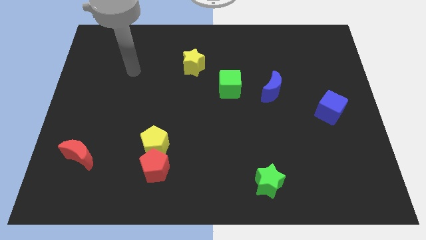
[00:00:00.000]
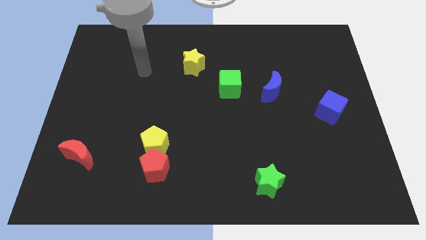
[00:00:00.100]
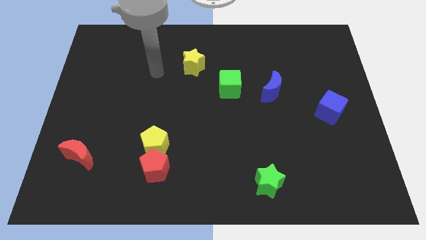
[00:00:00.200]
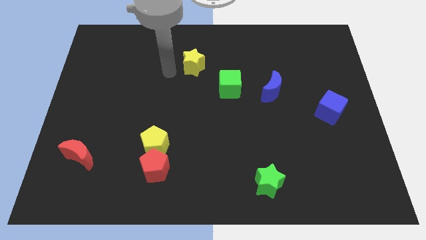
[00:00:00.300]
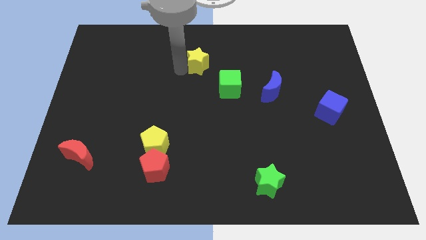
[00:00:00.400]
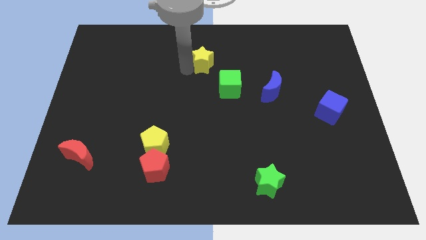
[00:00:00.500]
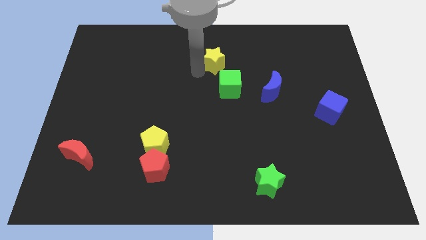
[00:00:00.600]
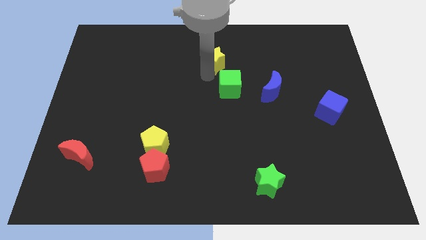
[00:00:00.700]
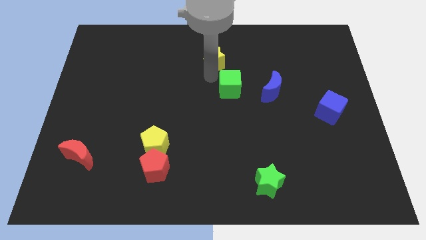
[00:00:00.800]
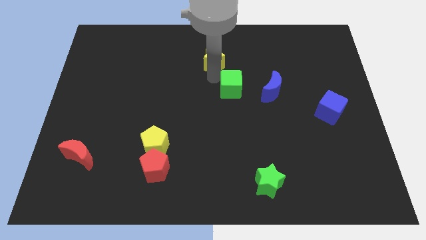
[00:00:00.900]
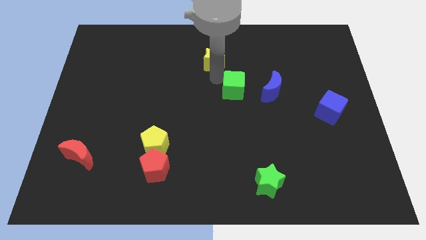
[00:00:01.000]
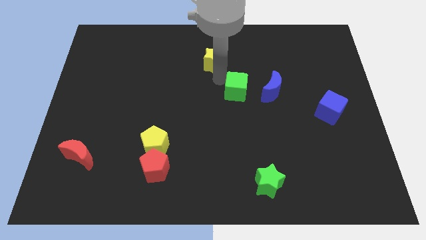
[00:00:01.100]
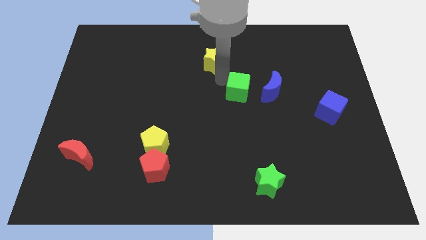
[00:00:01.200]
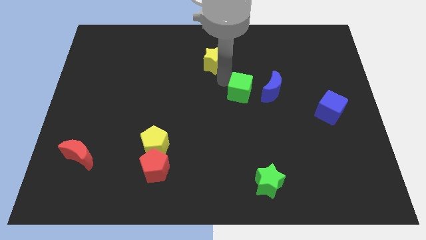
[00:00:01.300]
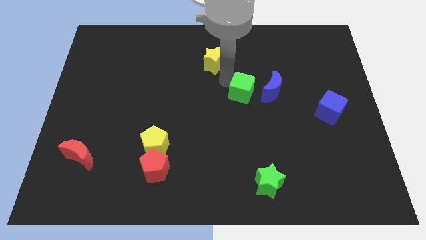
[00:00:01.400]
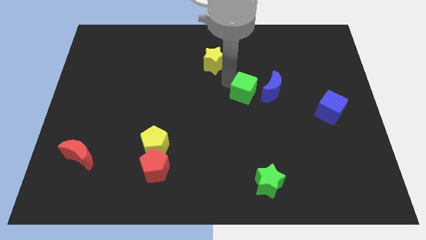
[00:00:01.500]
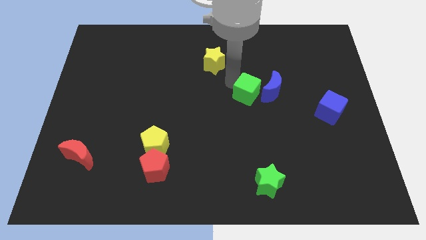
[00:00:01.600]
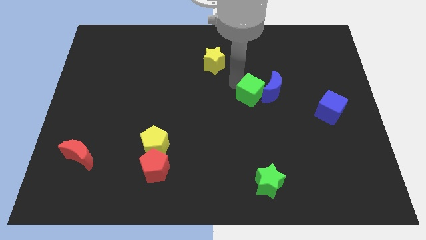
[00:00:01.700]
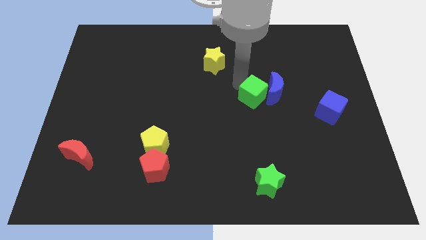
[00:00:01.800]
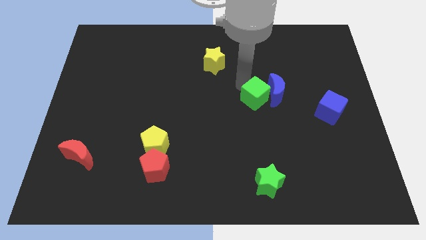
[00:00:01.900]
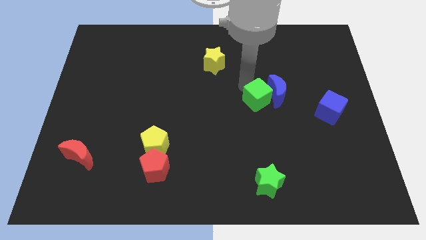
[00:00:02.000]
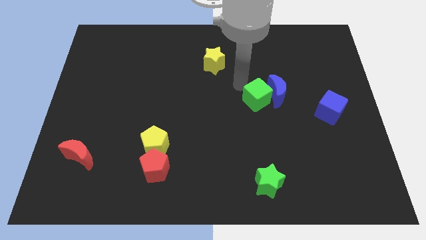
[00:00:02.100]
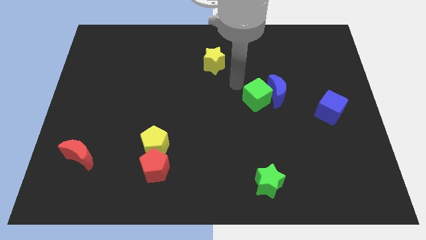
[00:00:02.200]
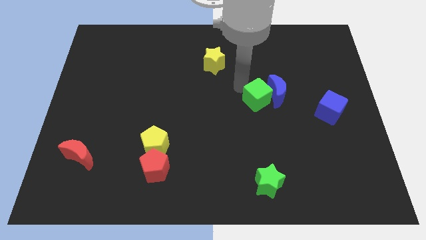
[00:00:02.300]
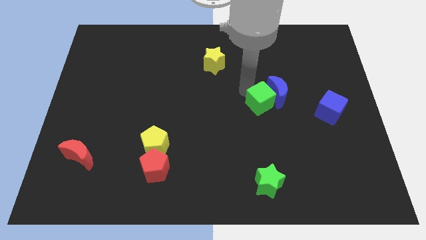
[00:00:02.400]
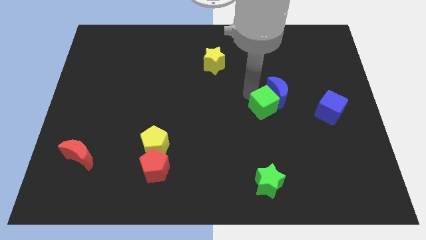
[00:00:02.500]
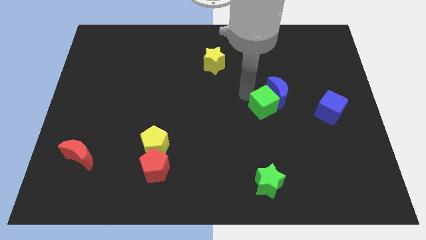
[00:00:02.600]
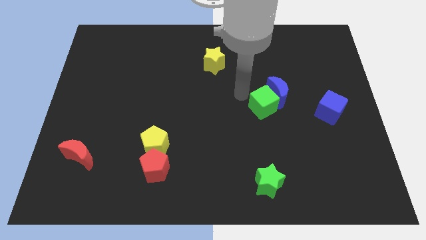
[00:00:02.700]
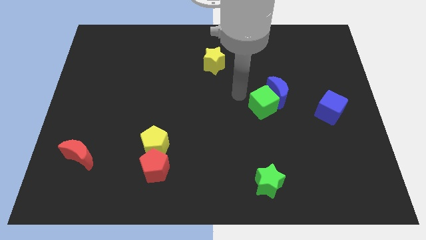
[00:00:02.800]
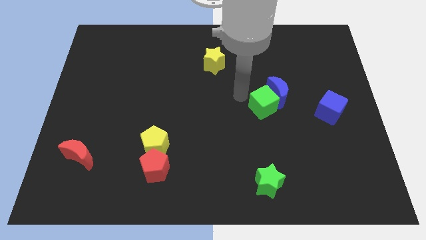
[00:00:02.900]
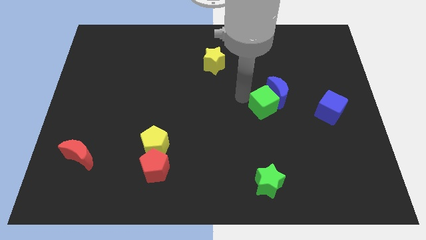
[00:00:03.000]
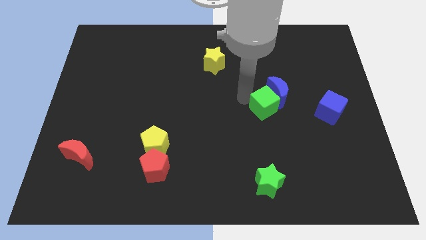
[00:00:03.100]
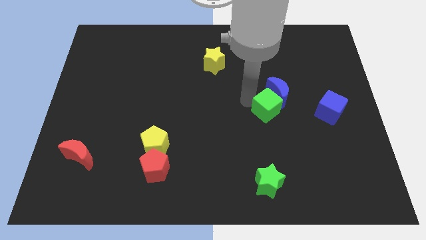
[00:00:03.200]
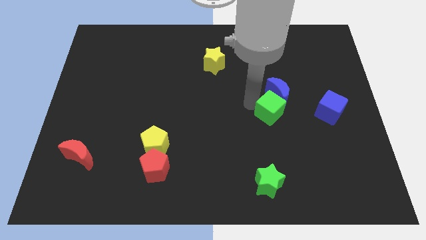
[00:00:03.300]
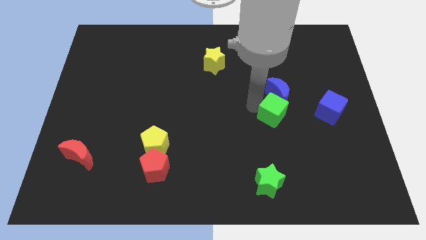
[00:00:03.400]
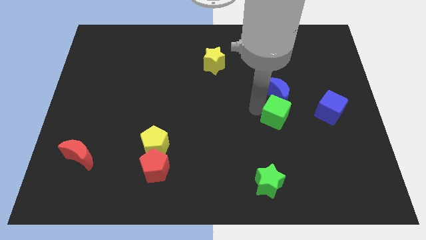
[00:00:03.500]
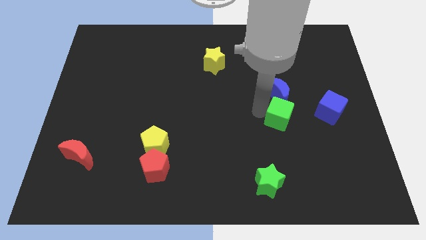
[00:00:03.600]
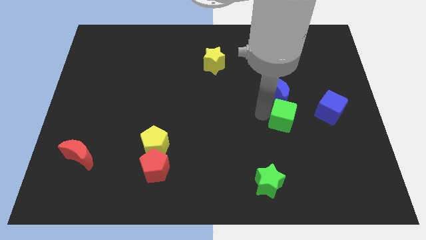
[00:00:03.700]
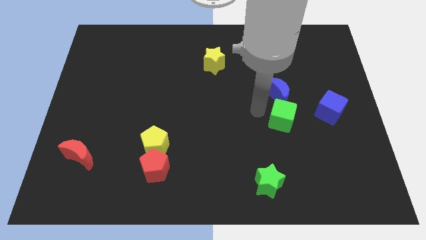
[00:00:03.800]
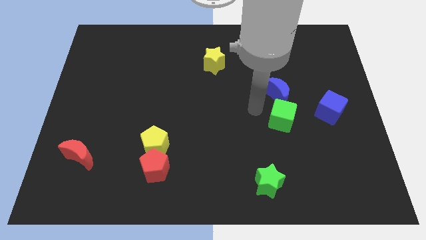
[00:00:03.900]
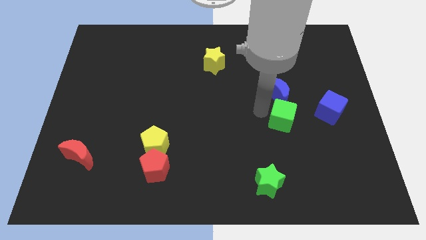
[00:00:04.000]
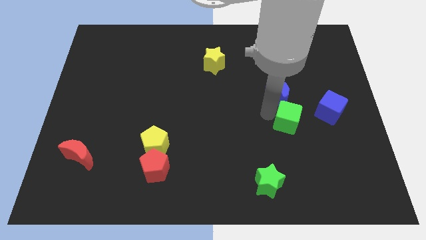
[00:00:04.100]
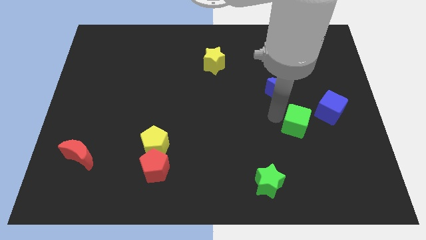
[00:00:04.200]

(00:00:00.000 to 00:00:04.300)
put the green cube to the bottom left side of the blue cube

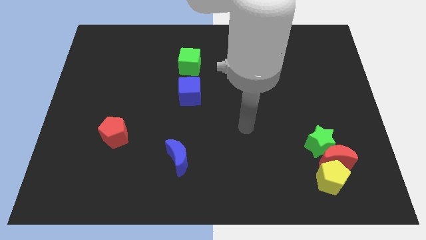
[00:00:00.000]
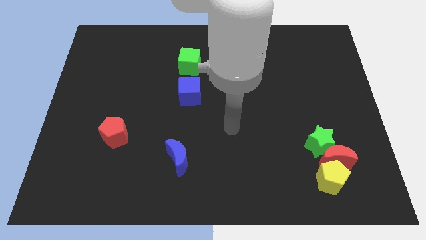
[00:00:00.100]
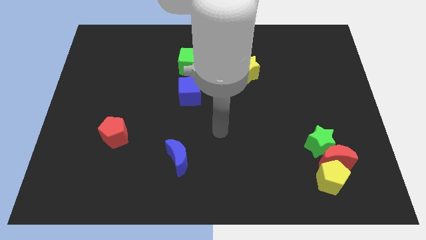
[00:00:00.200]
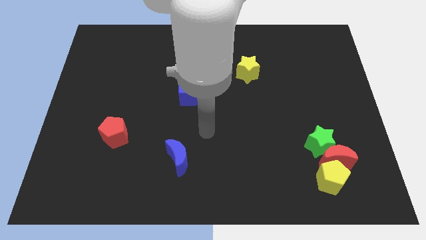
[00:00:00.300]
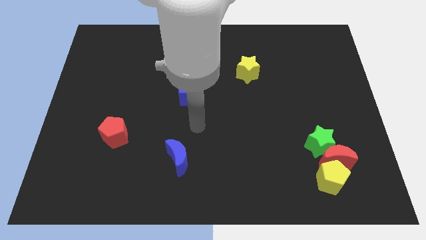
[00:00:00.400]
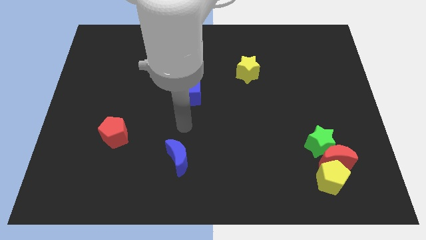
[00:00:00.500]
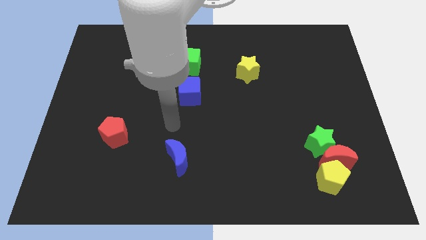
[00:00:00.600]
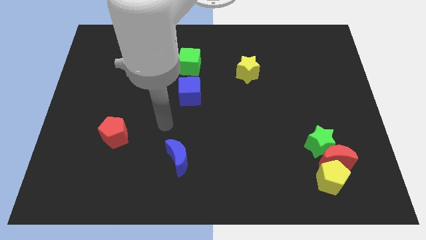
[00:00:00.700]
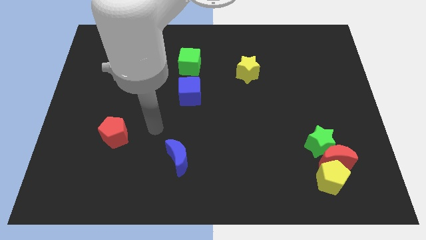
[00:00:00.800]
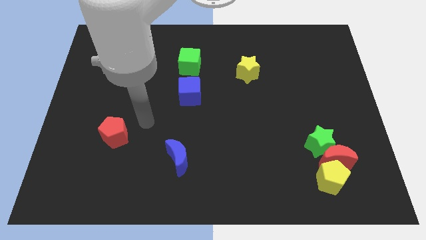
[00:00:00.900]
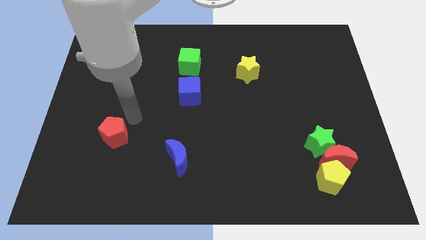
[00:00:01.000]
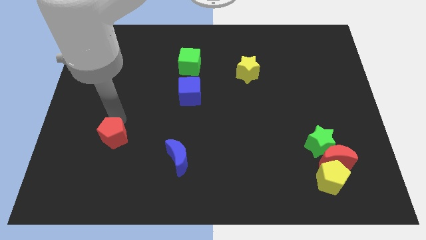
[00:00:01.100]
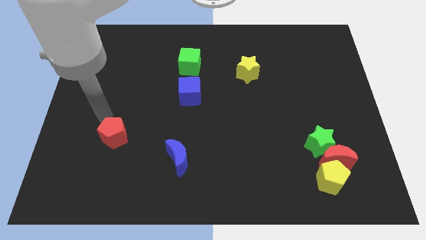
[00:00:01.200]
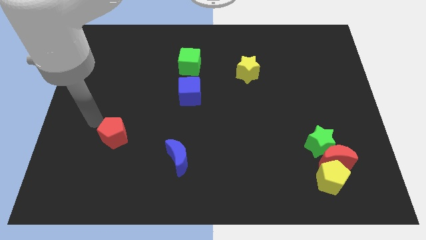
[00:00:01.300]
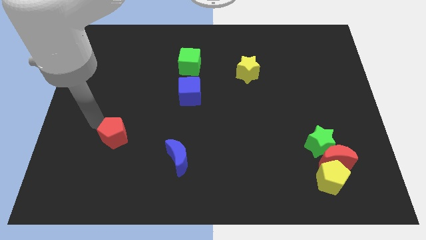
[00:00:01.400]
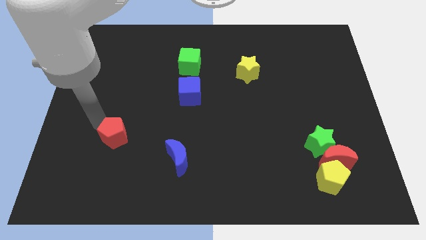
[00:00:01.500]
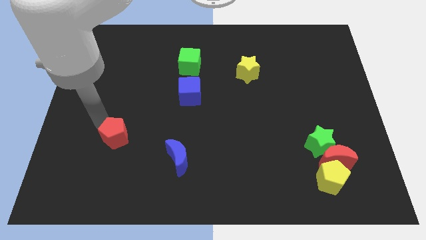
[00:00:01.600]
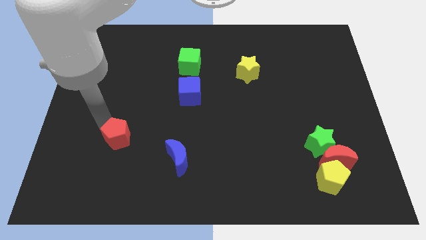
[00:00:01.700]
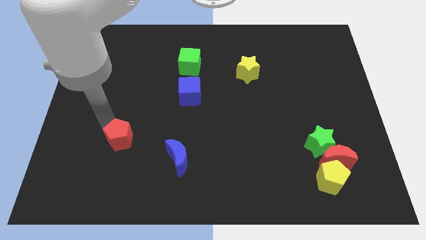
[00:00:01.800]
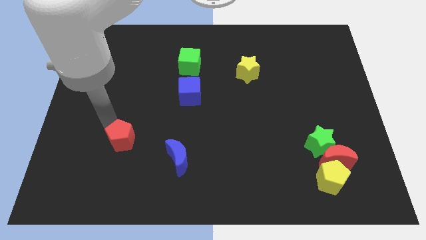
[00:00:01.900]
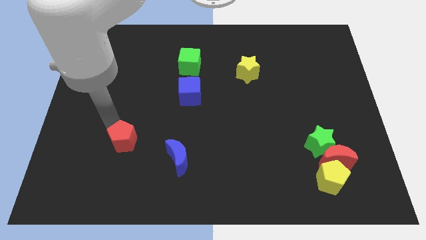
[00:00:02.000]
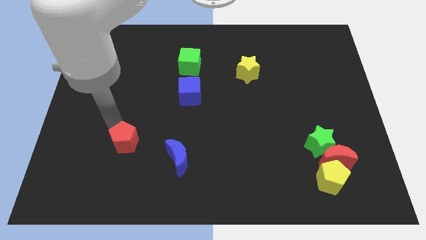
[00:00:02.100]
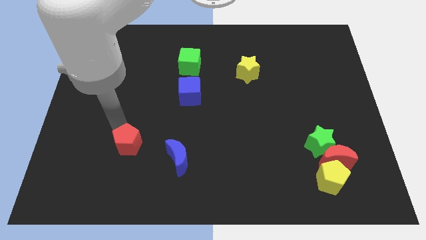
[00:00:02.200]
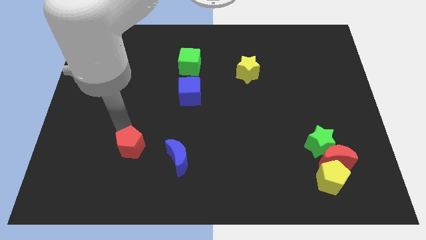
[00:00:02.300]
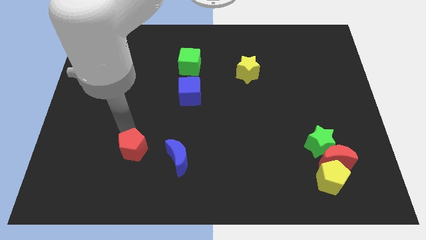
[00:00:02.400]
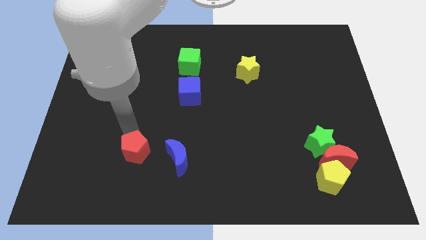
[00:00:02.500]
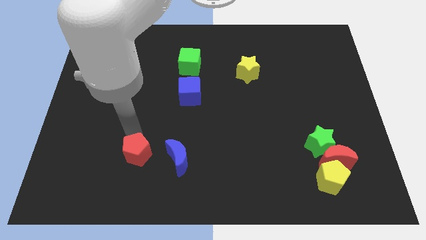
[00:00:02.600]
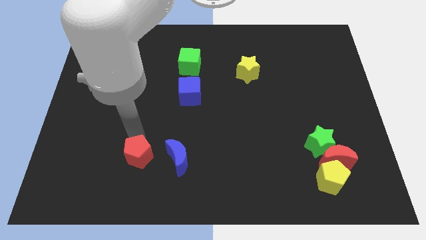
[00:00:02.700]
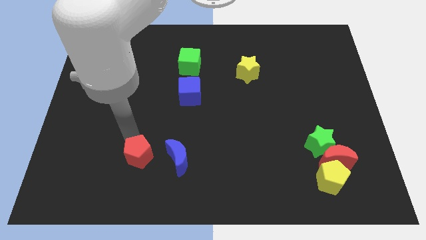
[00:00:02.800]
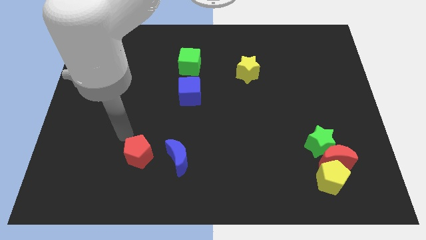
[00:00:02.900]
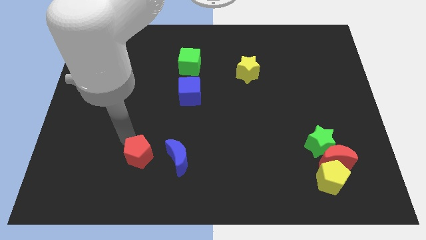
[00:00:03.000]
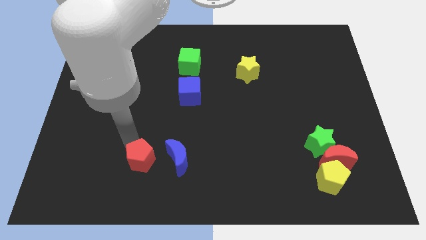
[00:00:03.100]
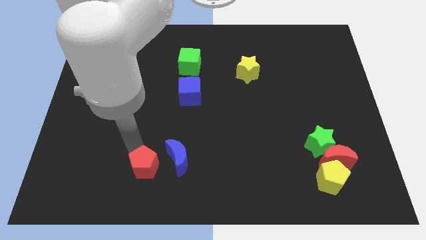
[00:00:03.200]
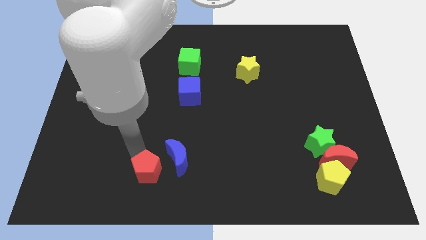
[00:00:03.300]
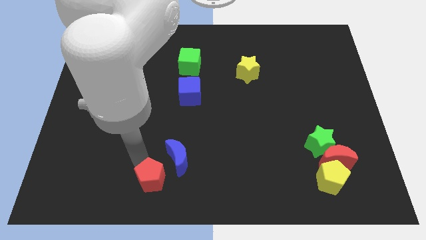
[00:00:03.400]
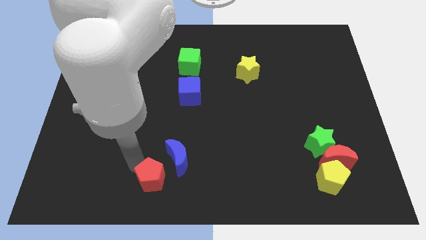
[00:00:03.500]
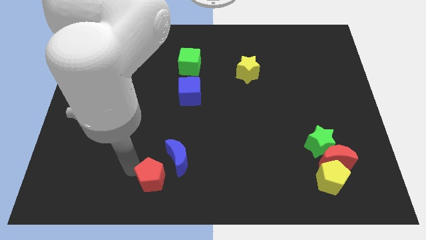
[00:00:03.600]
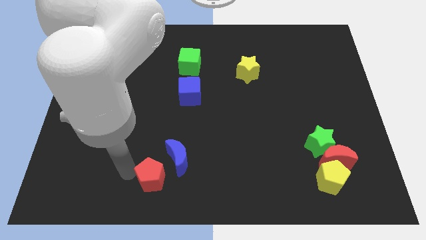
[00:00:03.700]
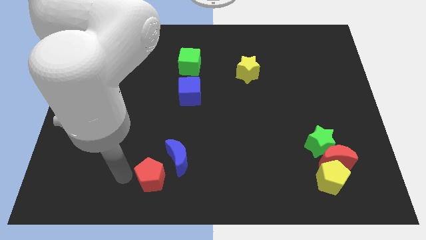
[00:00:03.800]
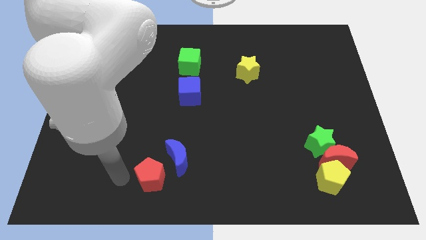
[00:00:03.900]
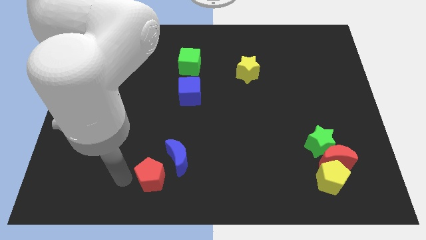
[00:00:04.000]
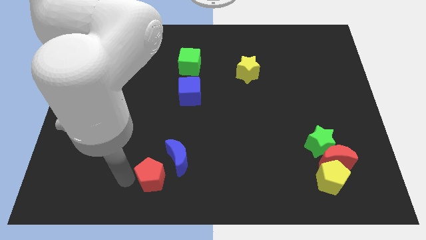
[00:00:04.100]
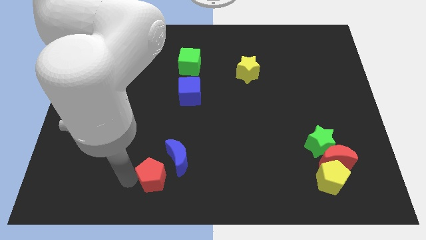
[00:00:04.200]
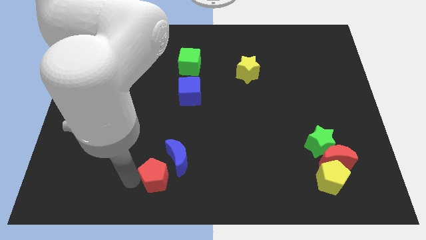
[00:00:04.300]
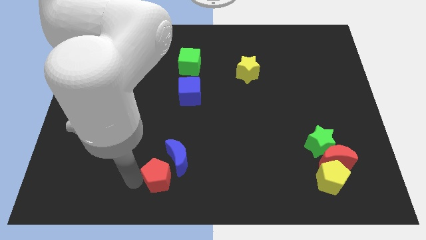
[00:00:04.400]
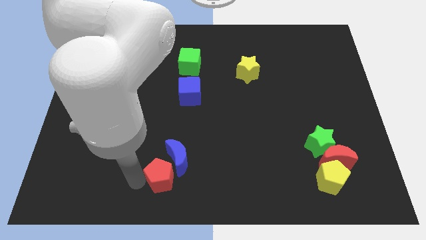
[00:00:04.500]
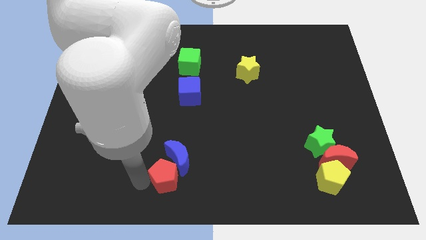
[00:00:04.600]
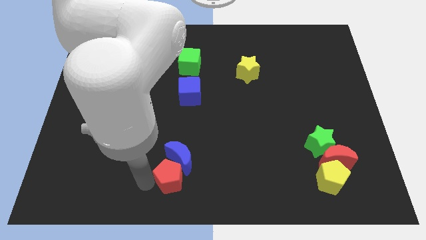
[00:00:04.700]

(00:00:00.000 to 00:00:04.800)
move the red pentagon to the bottom right side of the blue moon
